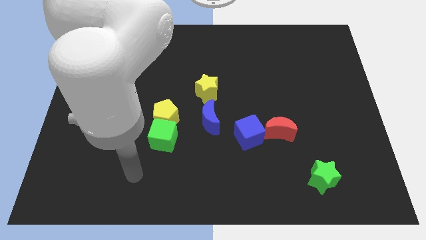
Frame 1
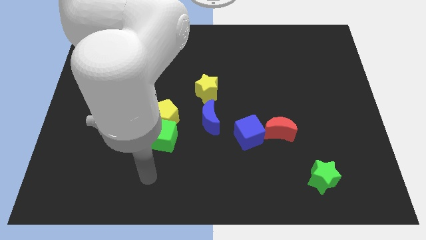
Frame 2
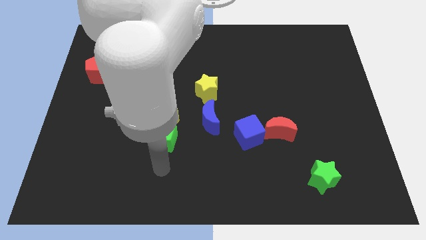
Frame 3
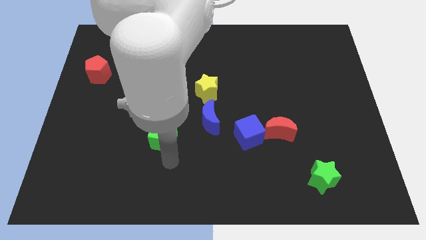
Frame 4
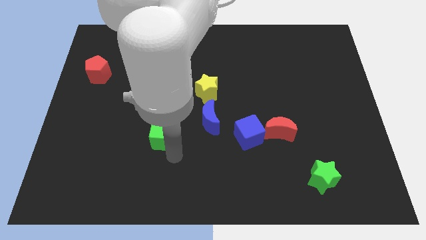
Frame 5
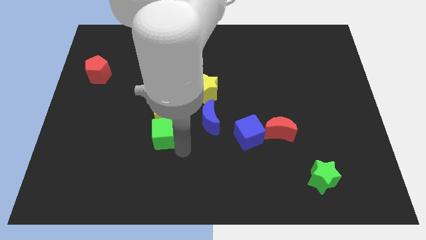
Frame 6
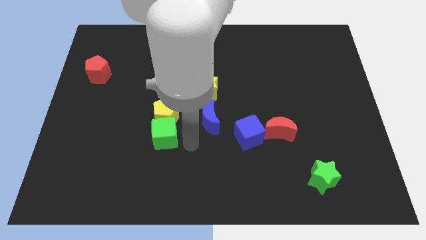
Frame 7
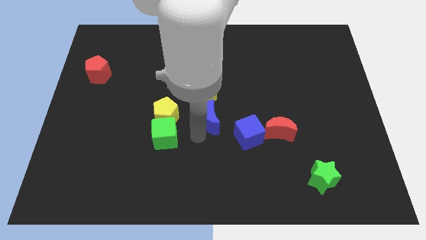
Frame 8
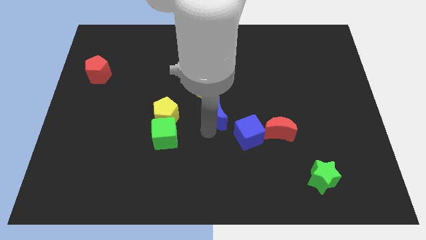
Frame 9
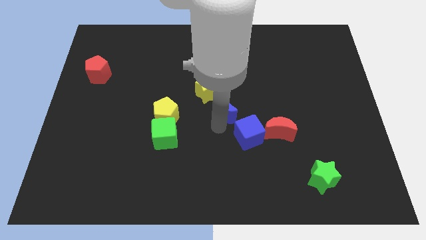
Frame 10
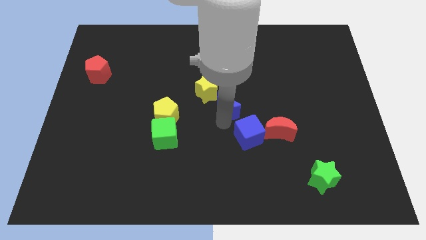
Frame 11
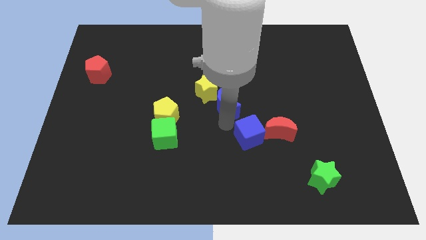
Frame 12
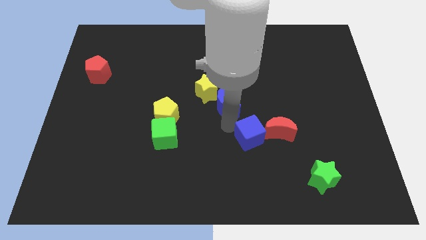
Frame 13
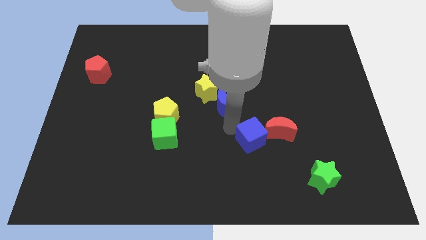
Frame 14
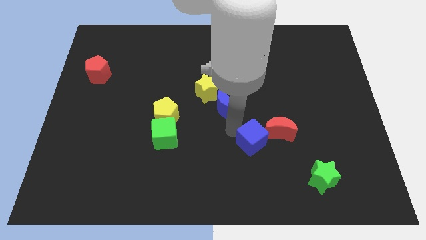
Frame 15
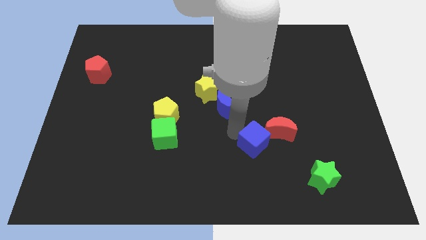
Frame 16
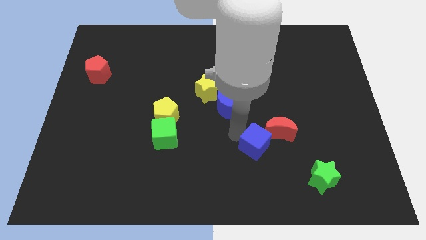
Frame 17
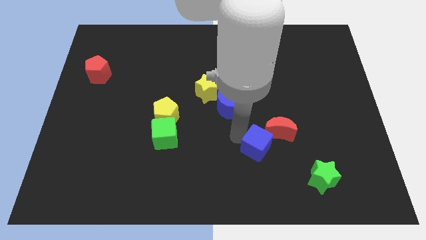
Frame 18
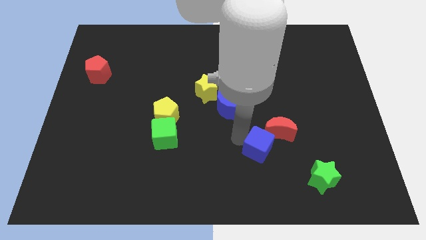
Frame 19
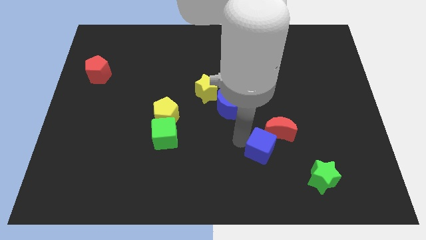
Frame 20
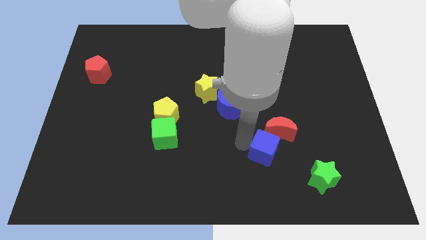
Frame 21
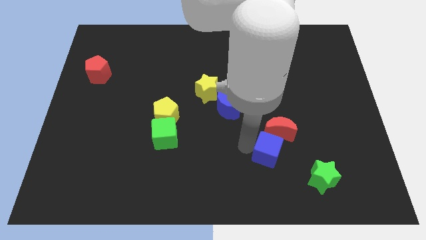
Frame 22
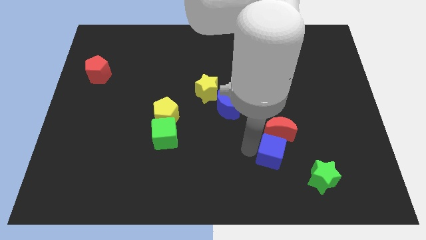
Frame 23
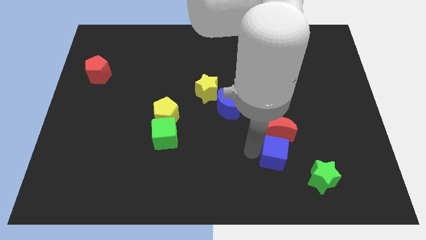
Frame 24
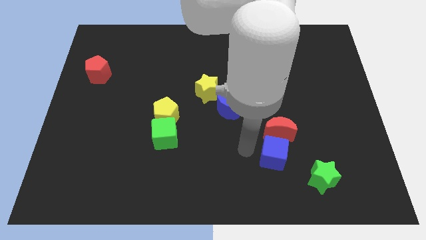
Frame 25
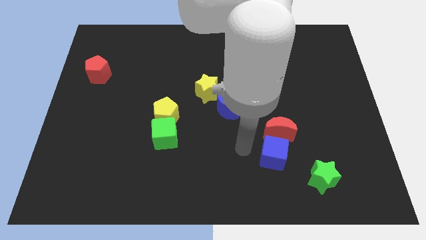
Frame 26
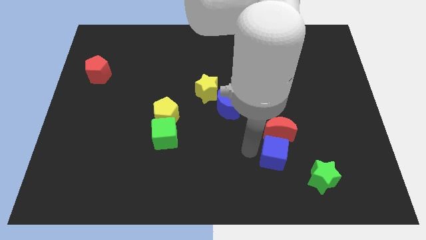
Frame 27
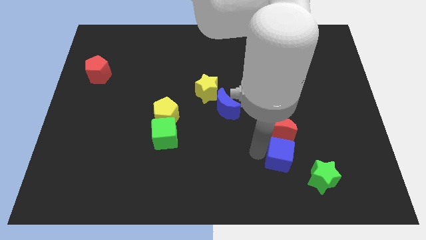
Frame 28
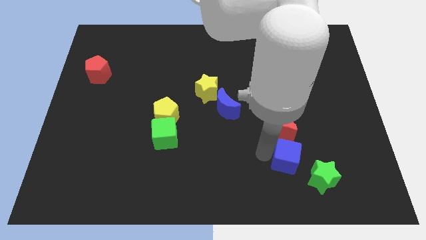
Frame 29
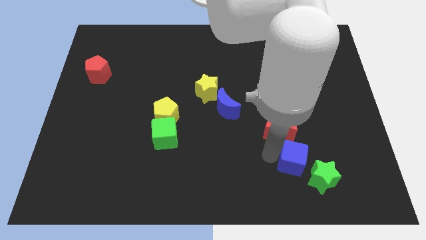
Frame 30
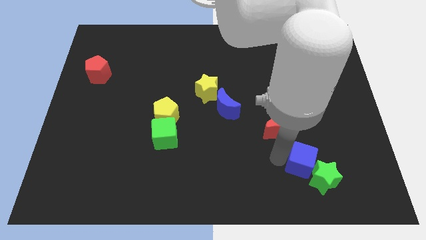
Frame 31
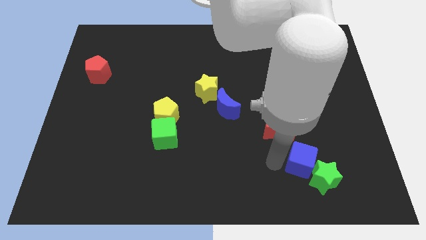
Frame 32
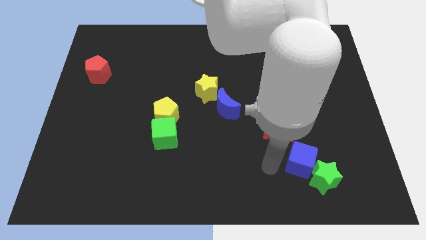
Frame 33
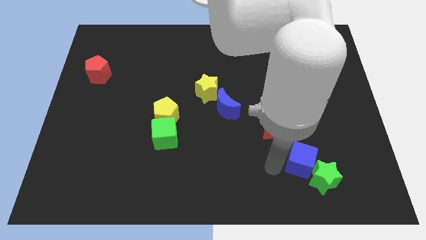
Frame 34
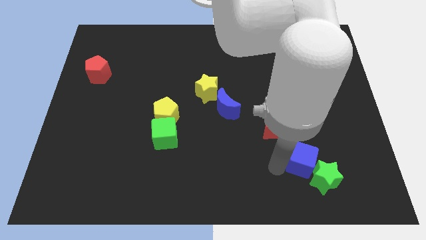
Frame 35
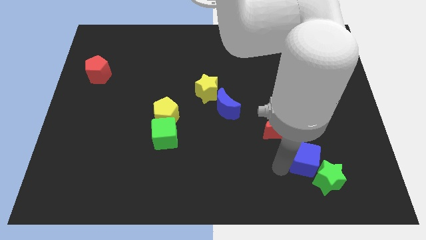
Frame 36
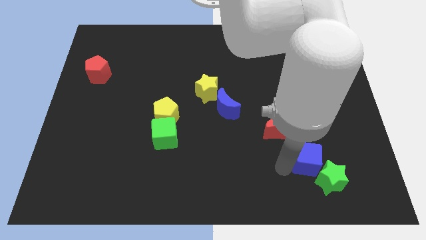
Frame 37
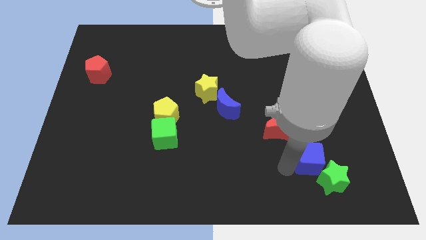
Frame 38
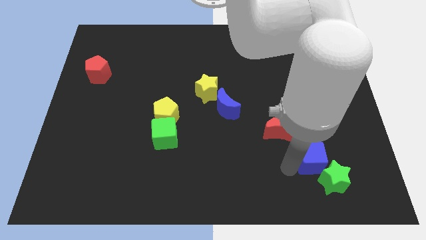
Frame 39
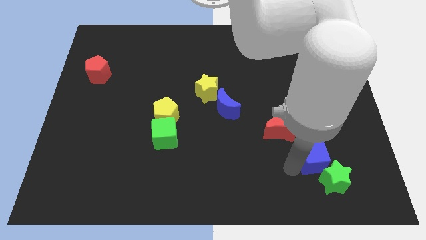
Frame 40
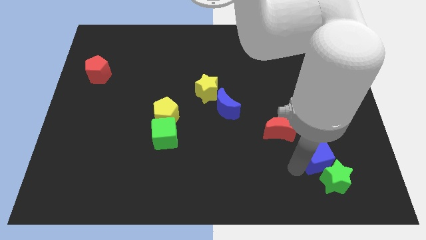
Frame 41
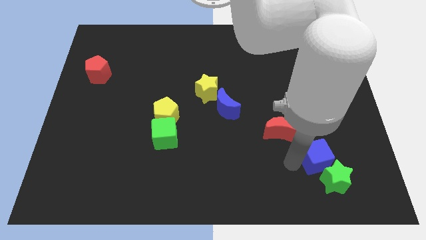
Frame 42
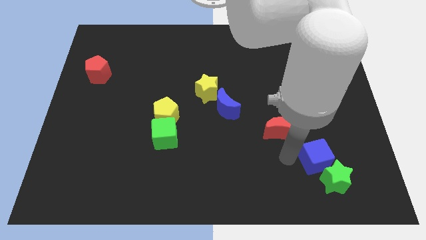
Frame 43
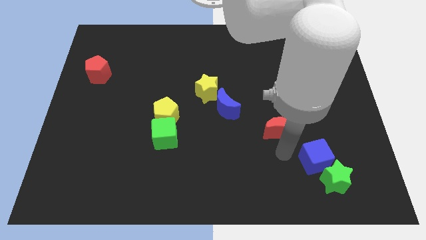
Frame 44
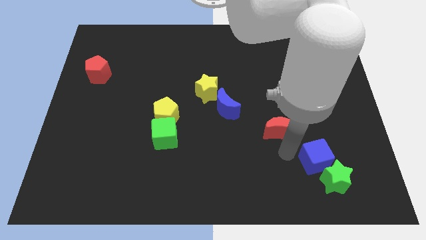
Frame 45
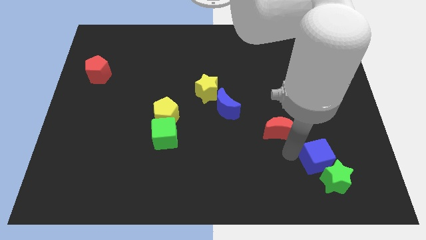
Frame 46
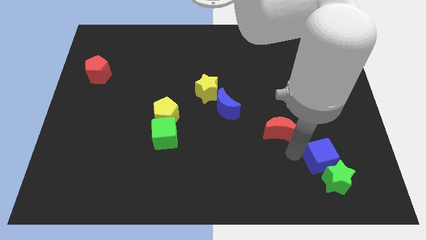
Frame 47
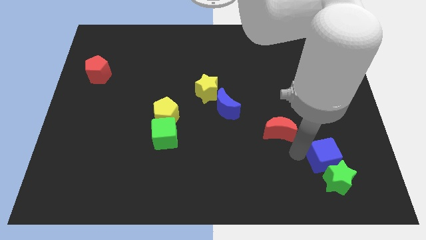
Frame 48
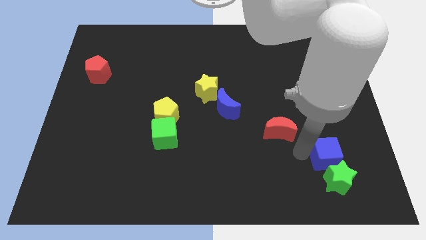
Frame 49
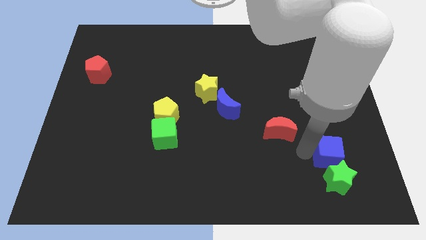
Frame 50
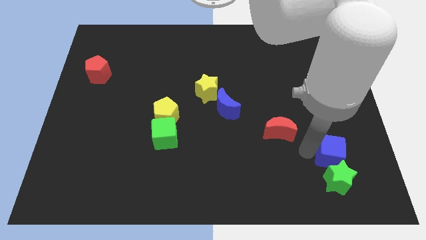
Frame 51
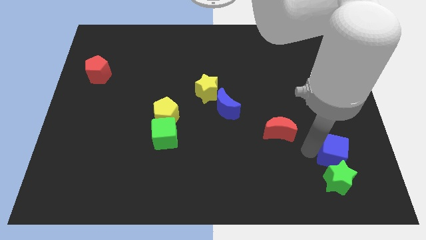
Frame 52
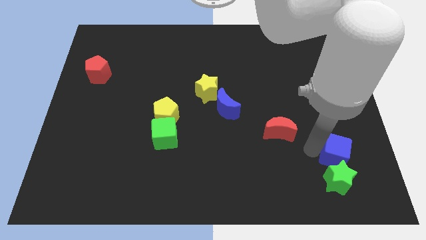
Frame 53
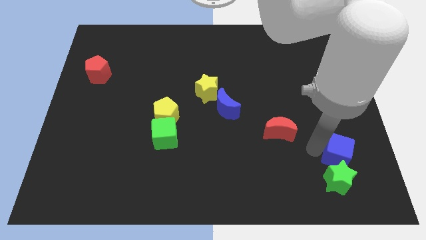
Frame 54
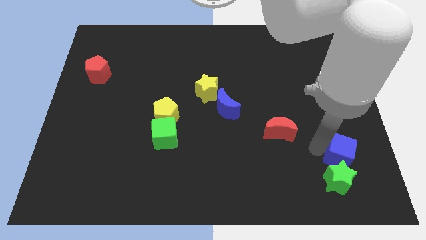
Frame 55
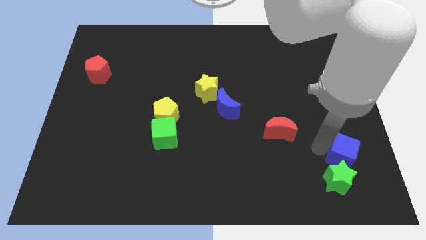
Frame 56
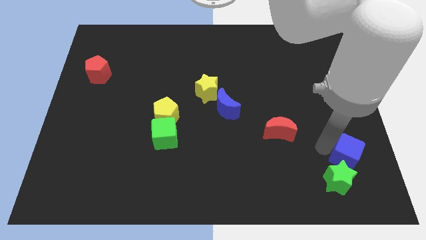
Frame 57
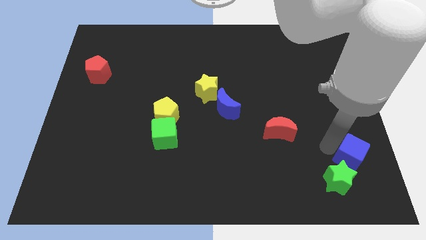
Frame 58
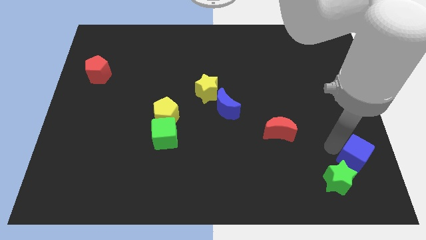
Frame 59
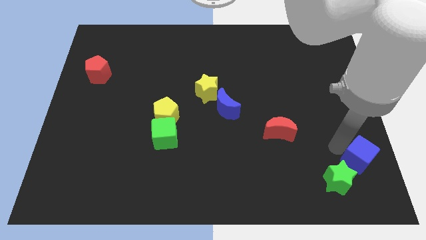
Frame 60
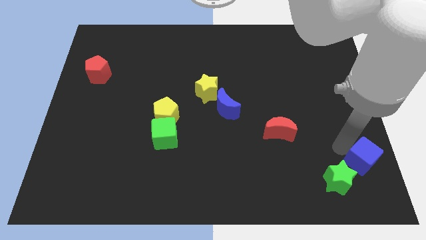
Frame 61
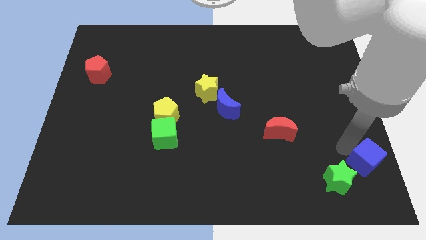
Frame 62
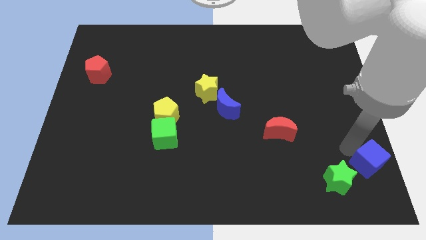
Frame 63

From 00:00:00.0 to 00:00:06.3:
put the blue cube to the bottom right corner

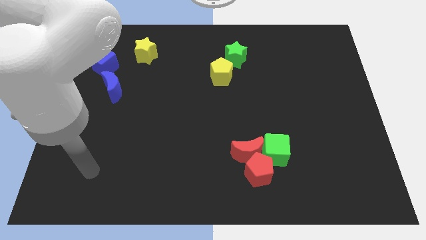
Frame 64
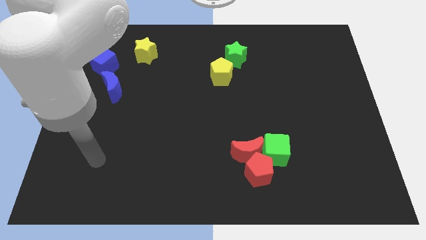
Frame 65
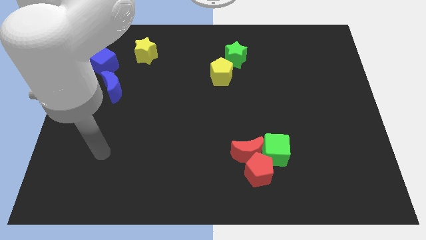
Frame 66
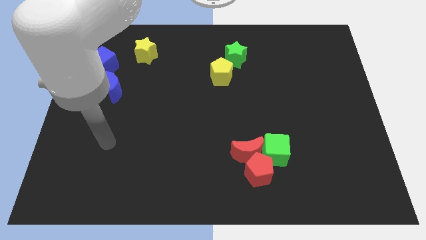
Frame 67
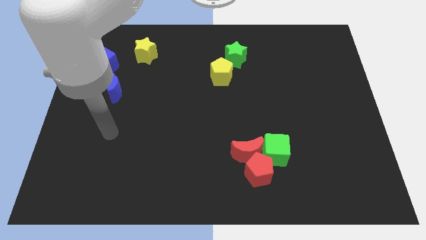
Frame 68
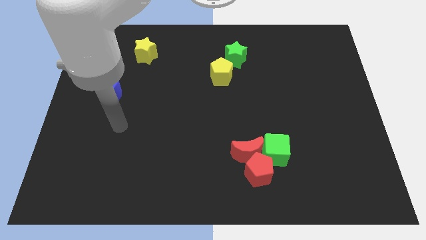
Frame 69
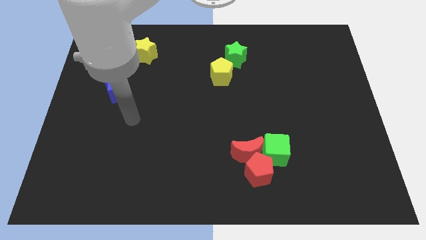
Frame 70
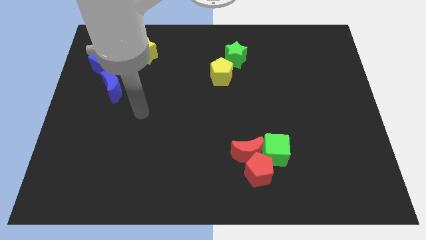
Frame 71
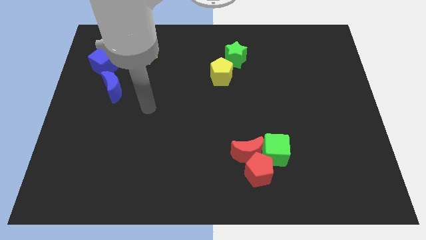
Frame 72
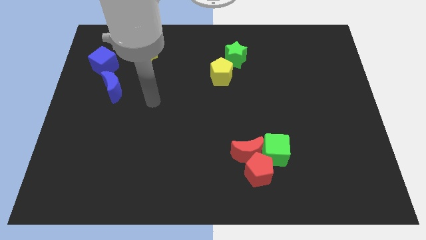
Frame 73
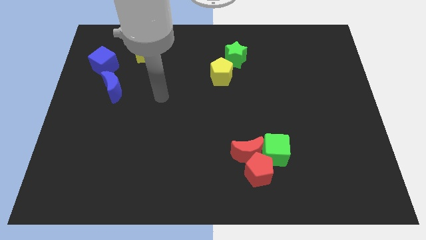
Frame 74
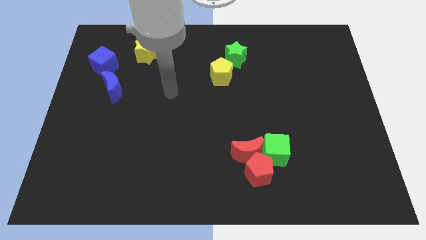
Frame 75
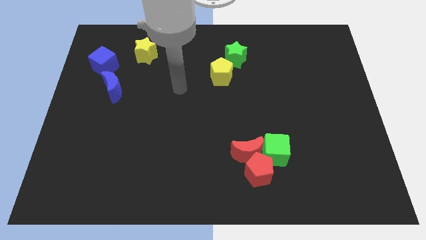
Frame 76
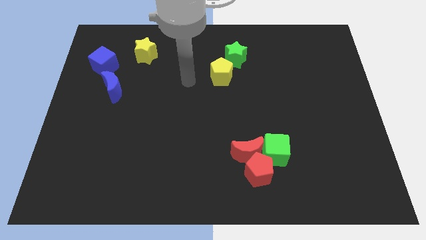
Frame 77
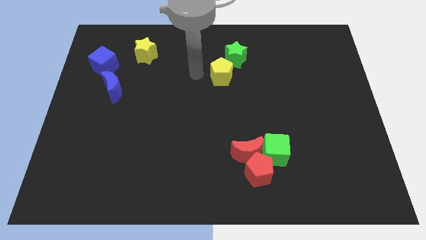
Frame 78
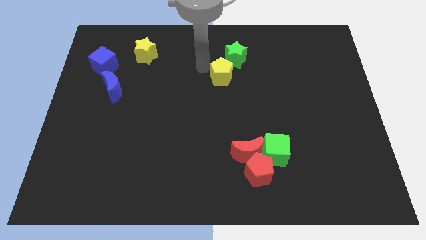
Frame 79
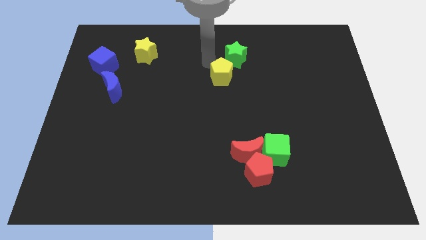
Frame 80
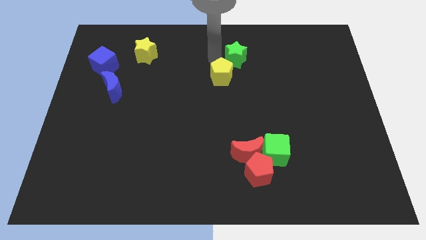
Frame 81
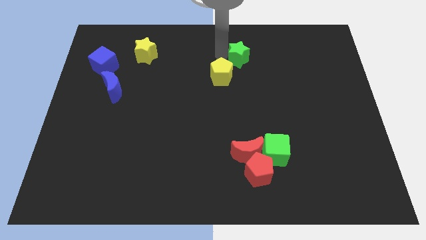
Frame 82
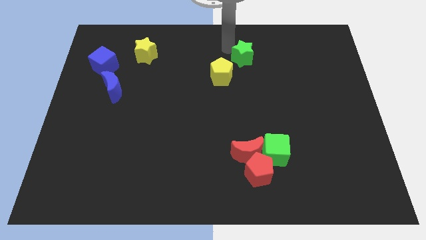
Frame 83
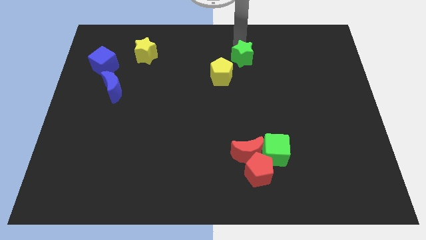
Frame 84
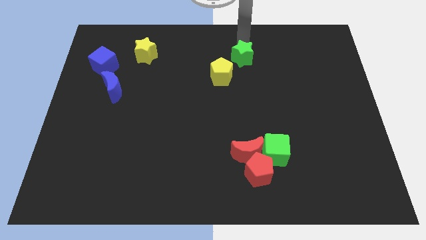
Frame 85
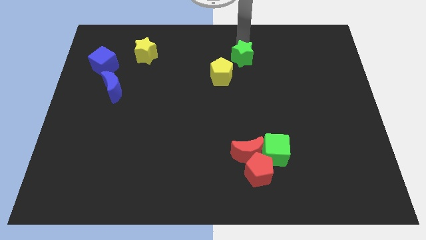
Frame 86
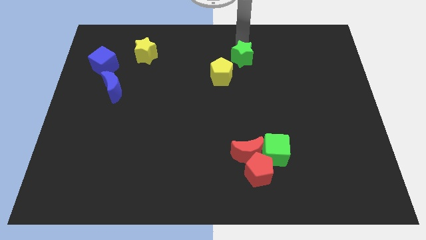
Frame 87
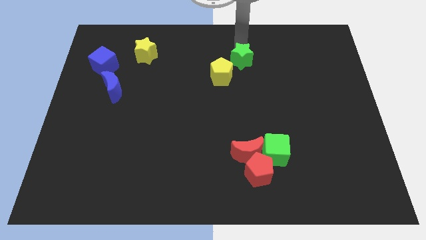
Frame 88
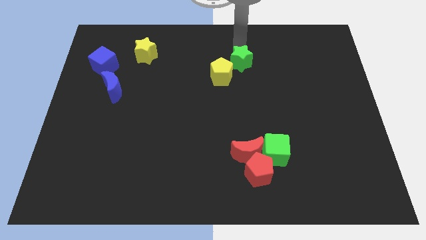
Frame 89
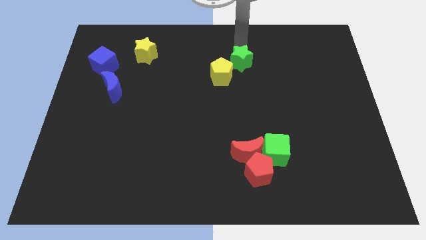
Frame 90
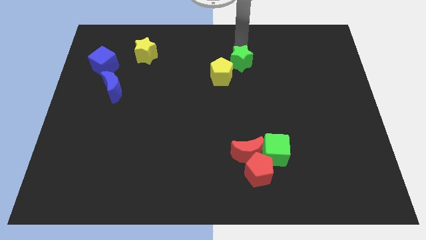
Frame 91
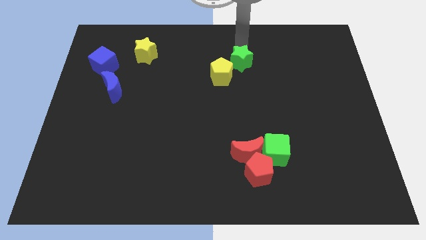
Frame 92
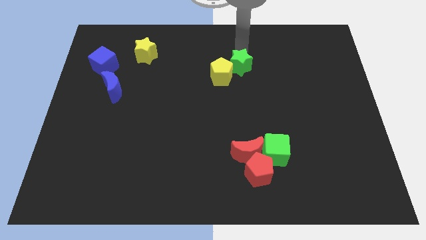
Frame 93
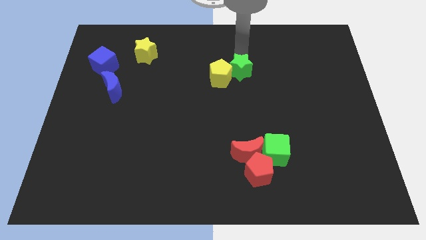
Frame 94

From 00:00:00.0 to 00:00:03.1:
put the green star to the center
